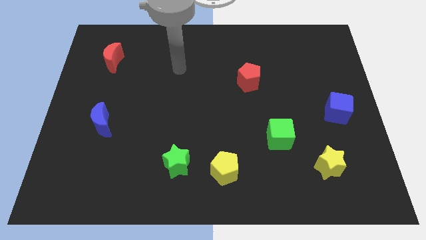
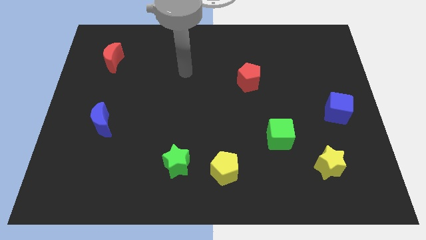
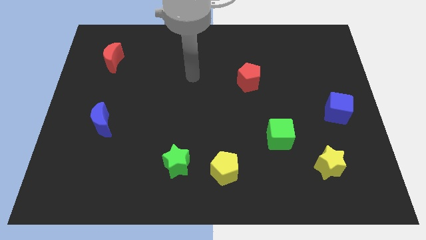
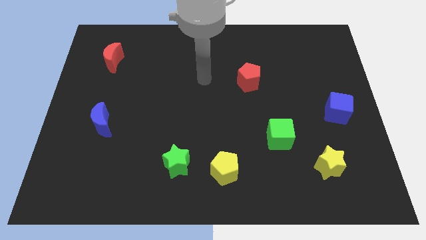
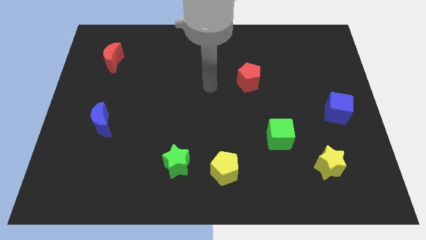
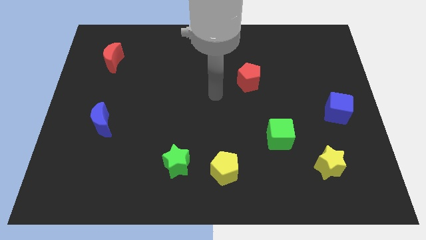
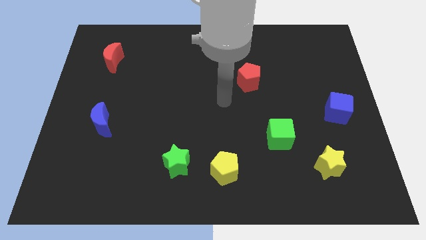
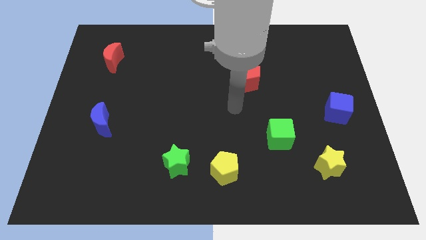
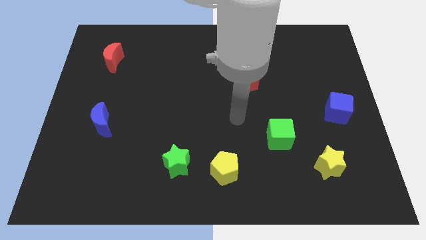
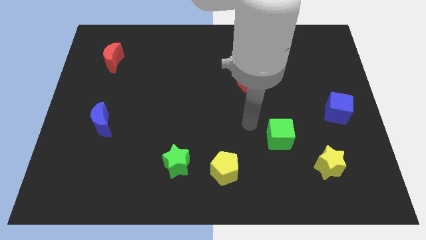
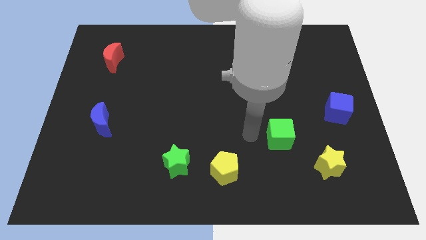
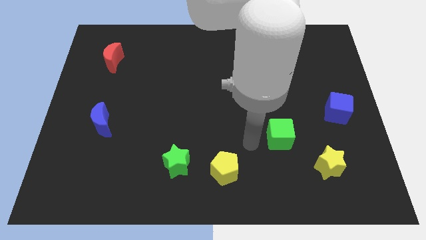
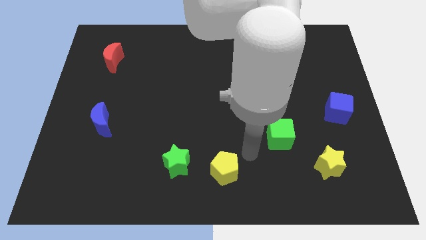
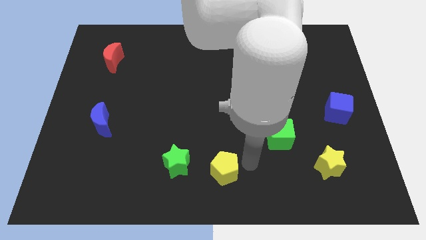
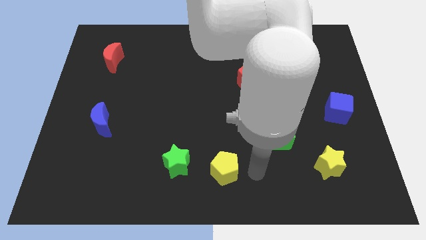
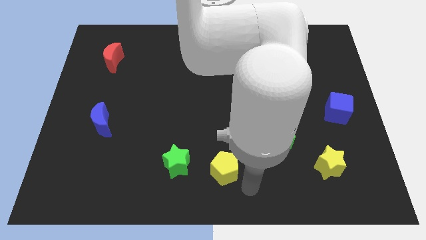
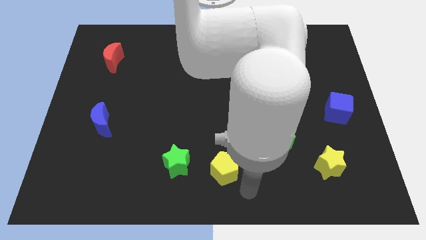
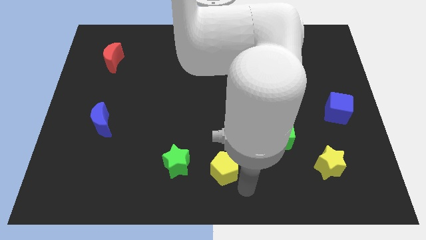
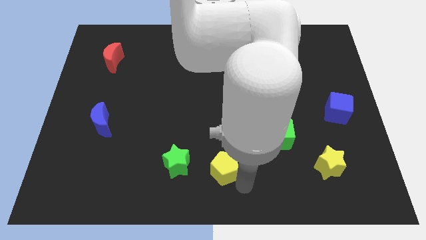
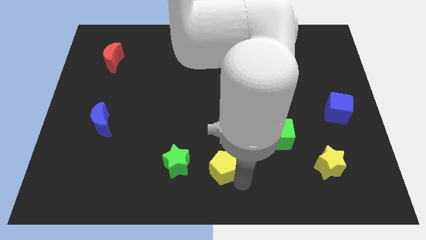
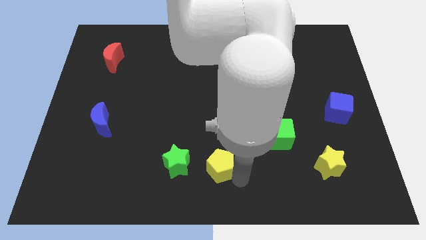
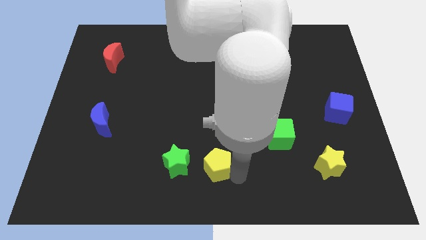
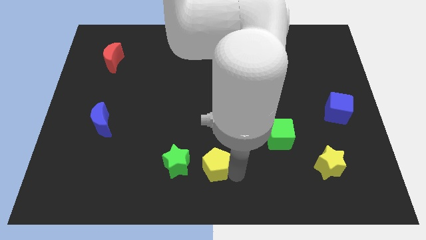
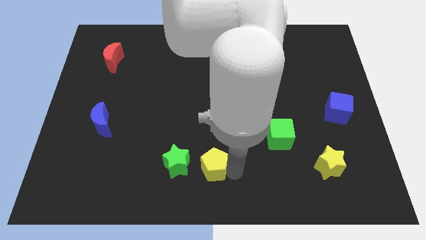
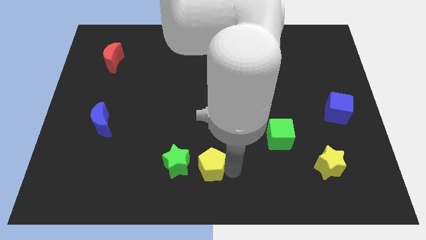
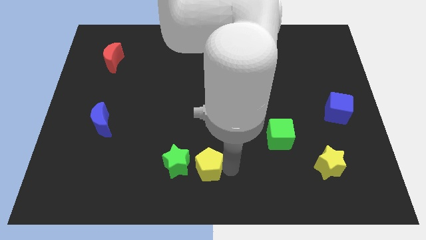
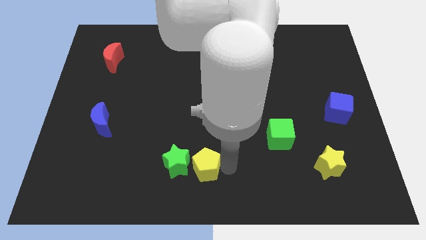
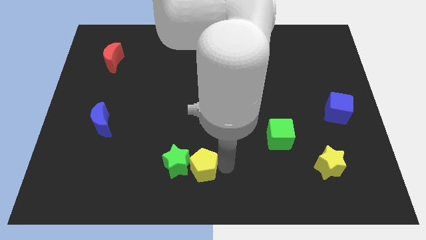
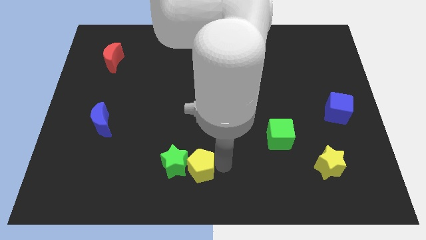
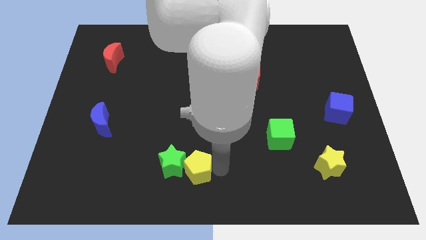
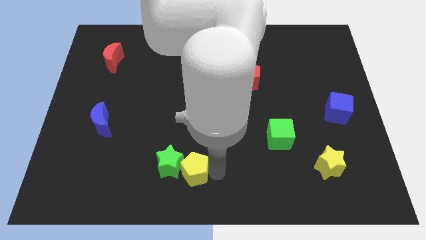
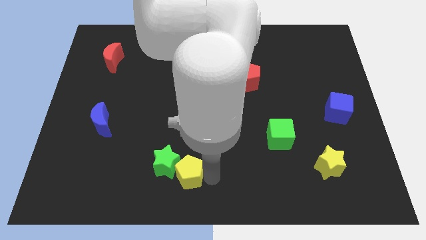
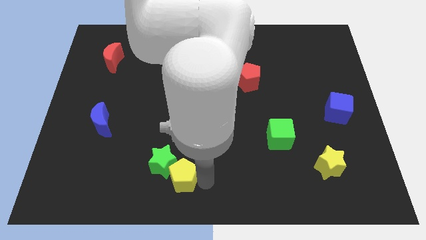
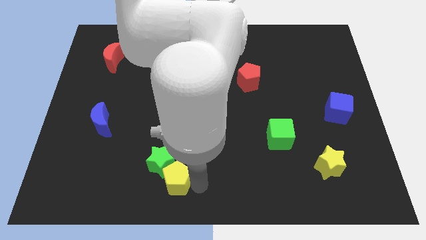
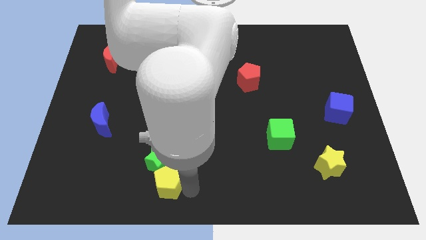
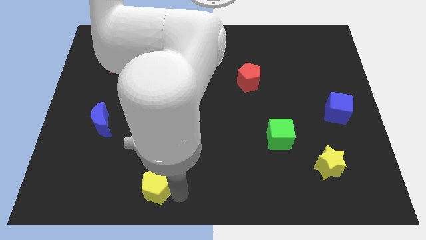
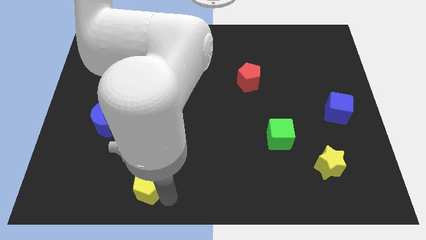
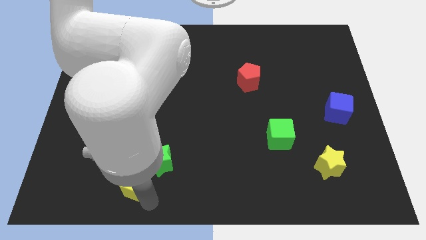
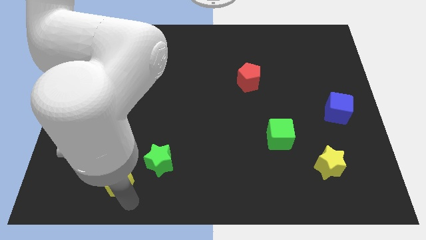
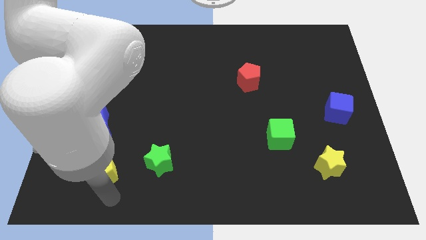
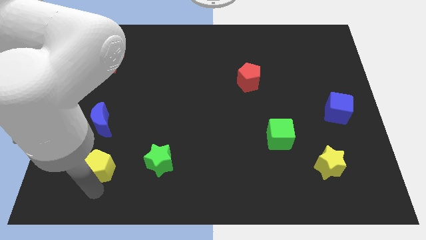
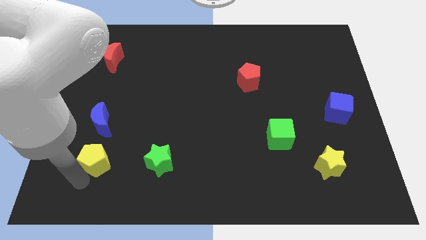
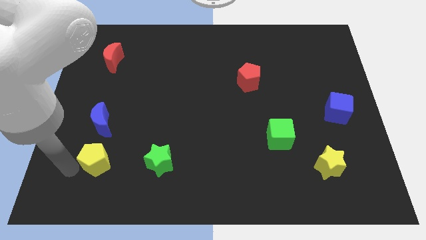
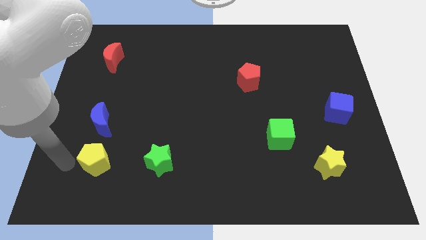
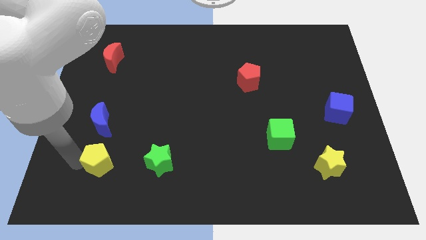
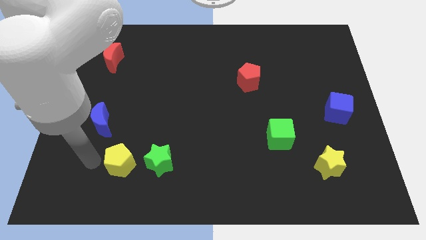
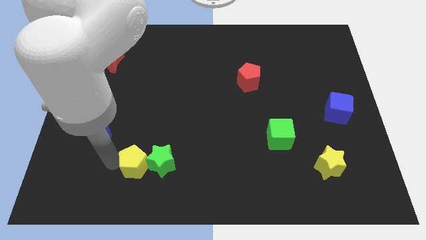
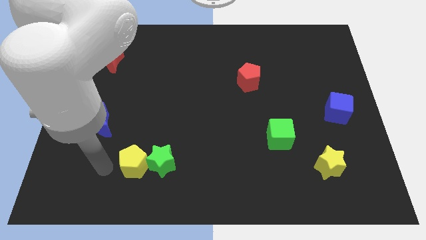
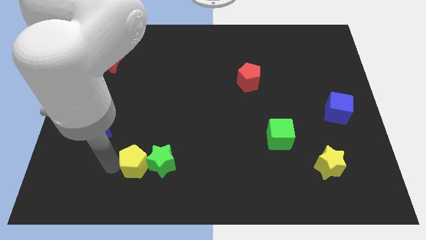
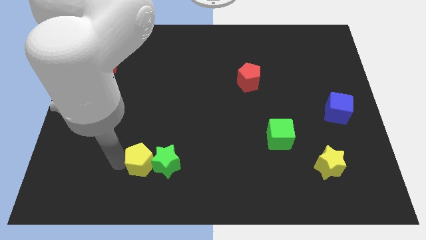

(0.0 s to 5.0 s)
slightly slide the yellow pentagon diagonally upwards and to the left

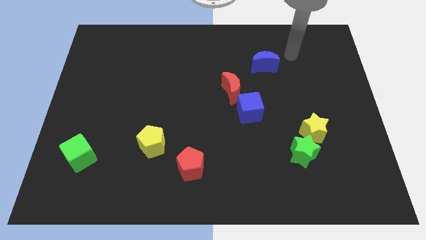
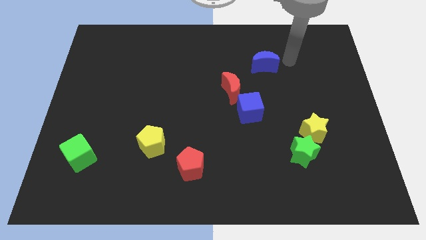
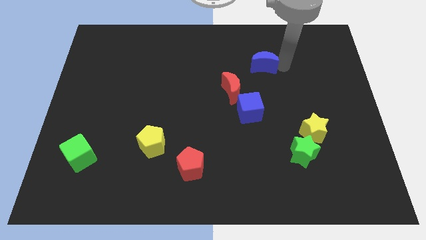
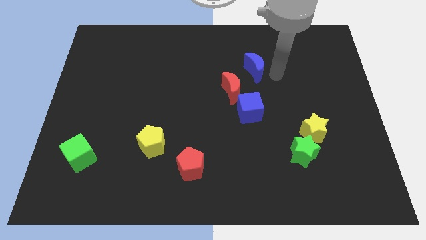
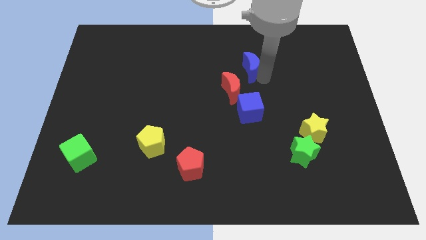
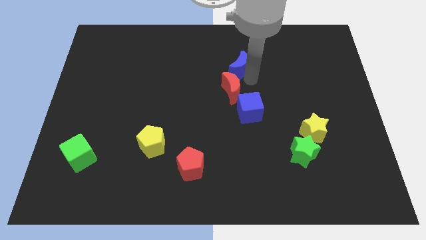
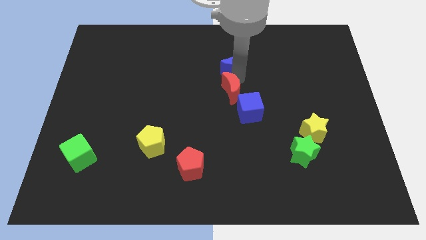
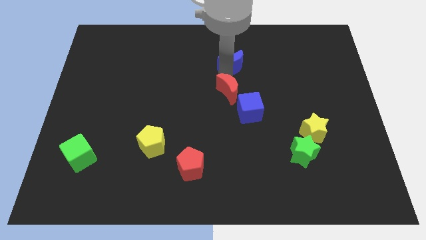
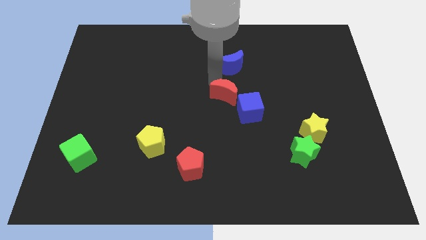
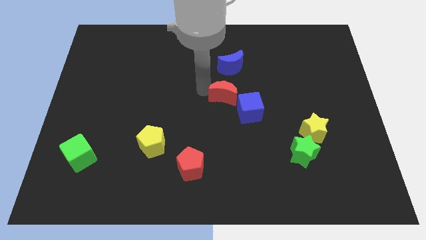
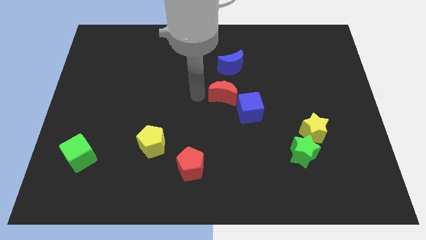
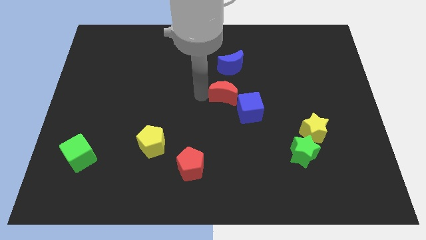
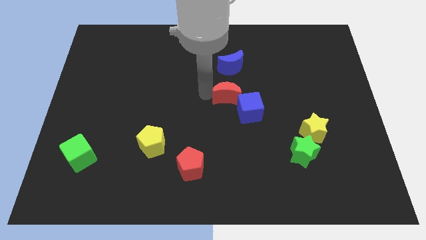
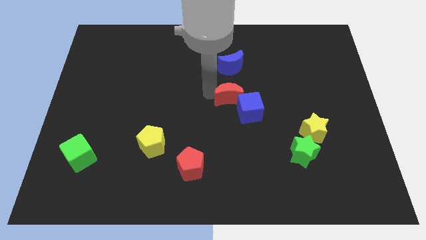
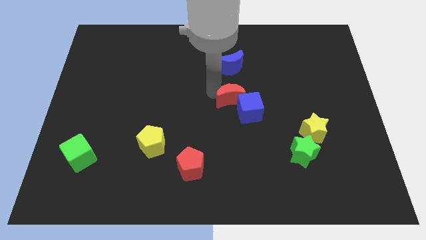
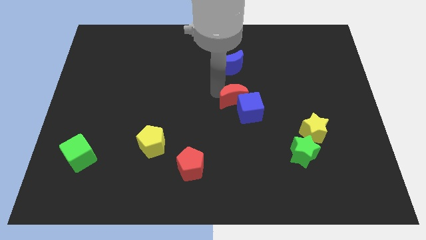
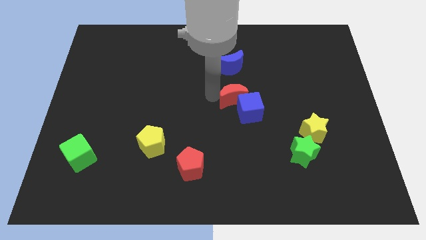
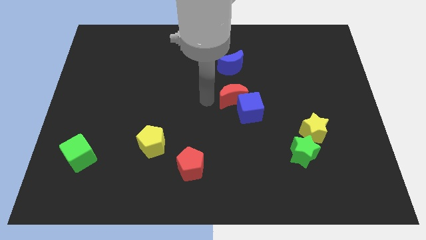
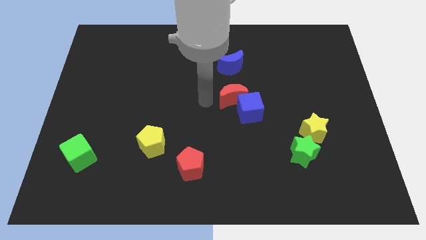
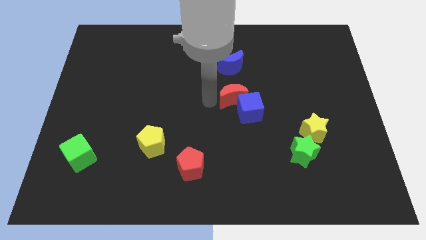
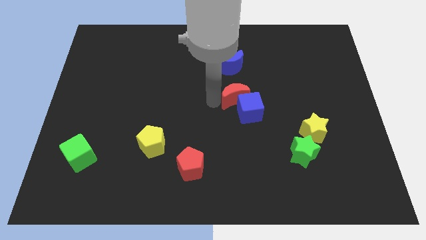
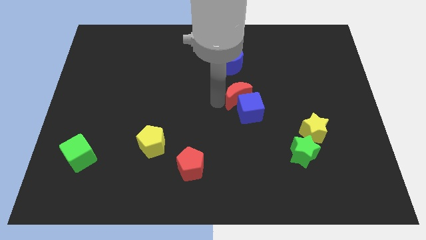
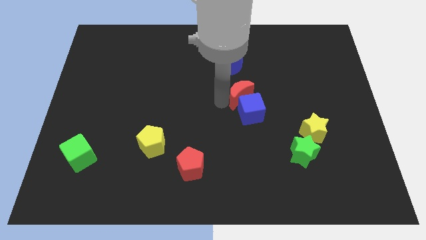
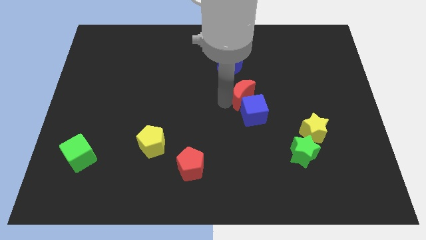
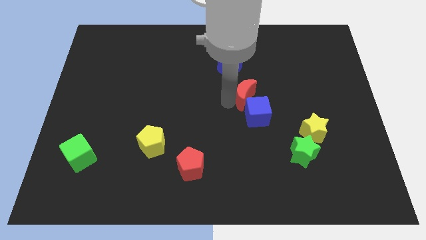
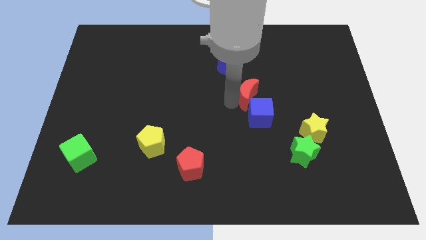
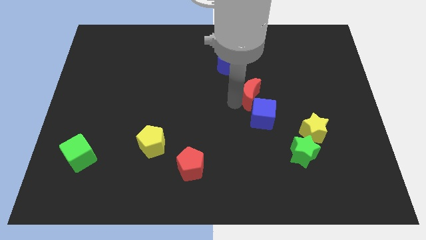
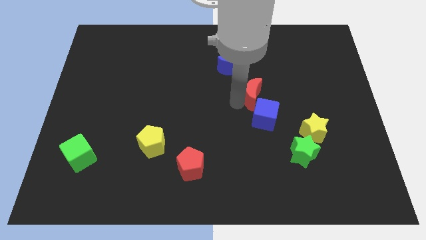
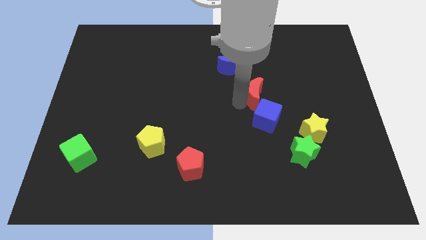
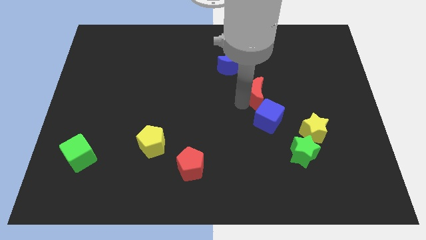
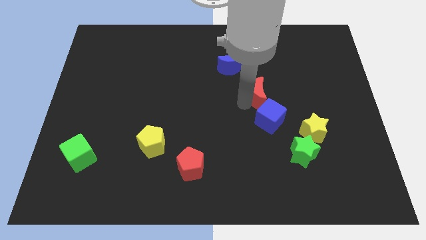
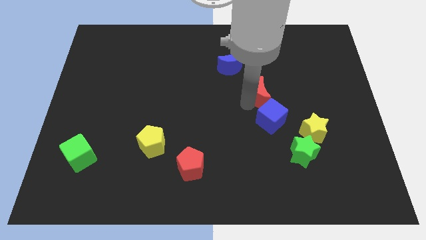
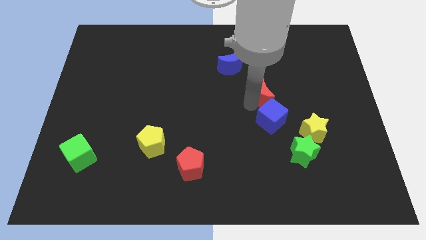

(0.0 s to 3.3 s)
slide the red moon a little to the right
